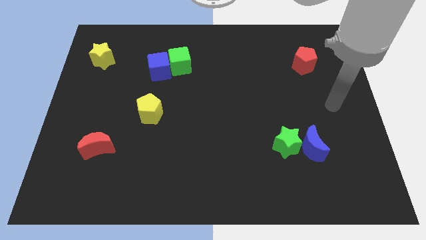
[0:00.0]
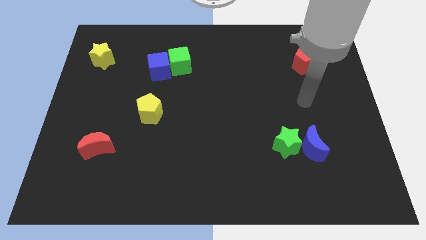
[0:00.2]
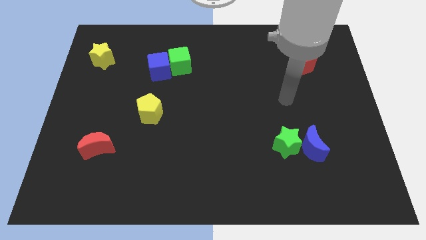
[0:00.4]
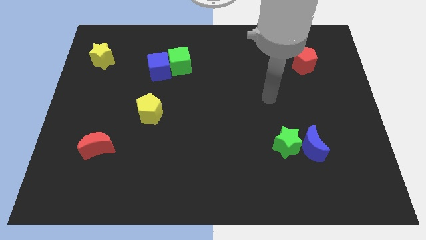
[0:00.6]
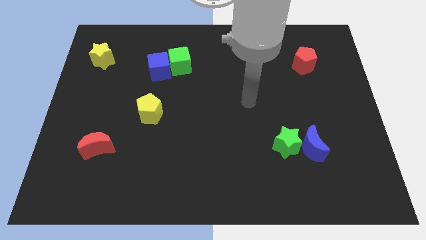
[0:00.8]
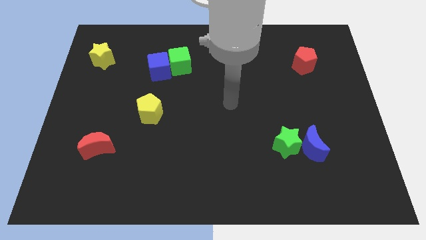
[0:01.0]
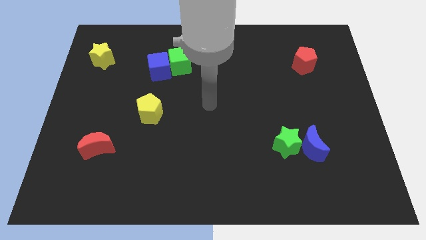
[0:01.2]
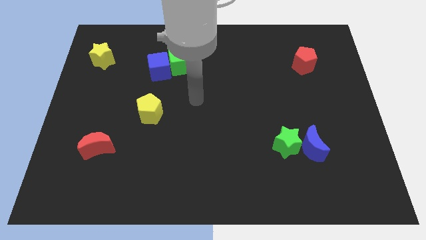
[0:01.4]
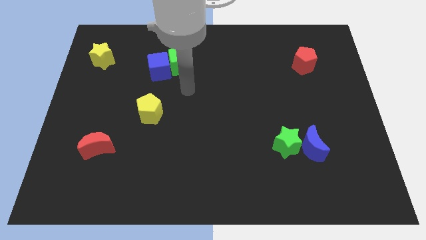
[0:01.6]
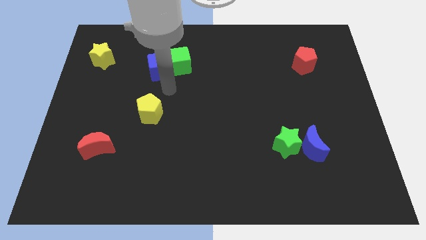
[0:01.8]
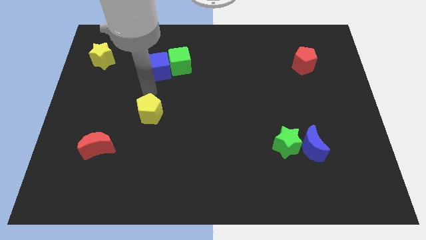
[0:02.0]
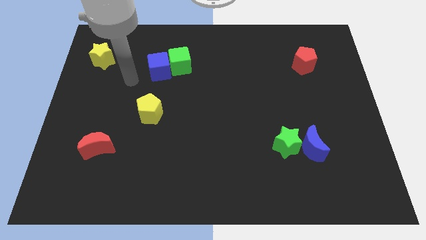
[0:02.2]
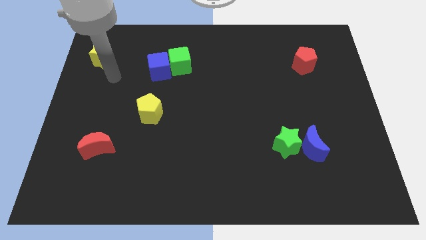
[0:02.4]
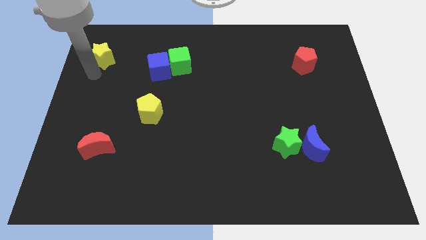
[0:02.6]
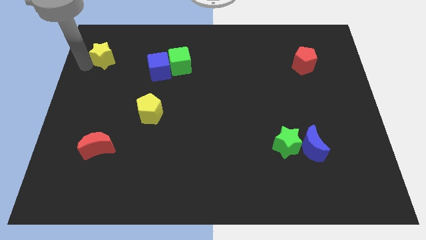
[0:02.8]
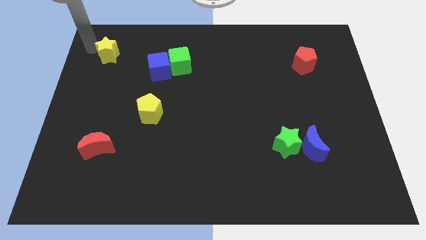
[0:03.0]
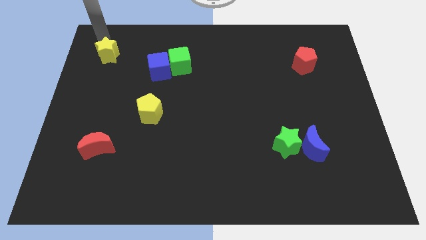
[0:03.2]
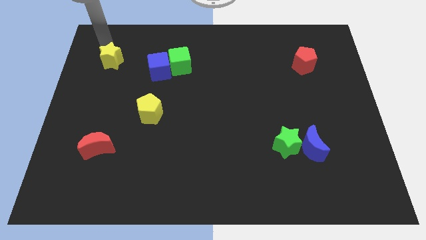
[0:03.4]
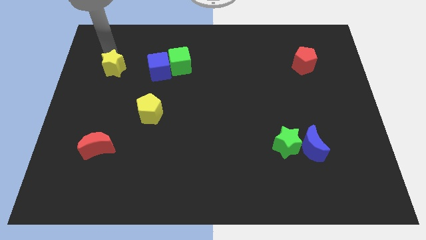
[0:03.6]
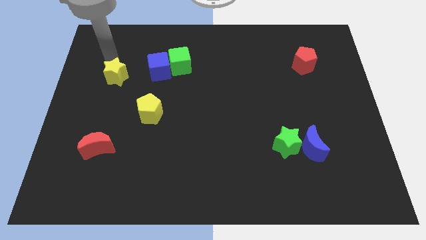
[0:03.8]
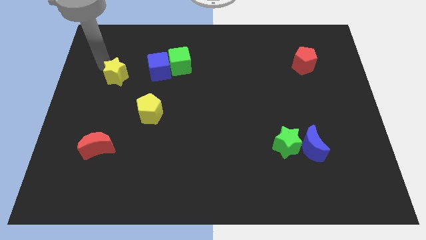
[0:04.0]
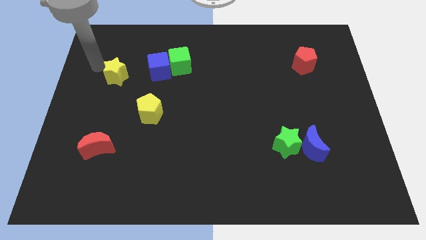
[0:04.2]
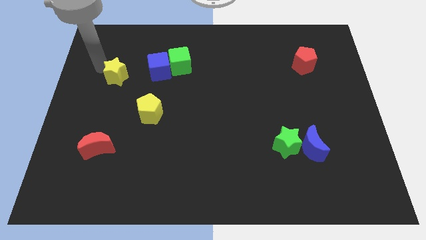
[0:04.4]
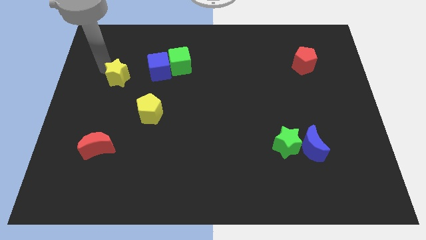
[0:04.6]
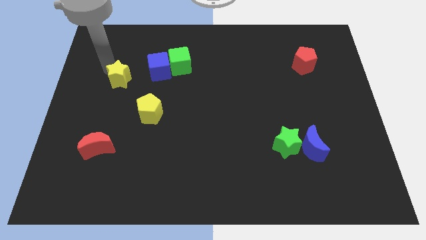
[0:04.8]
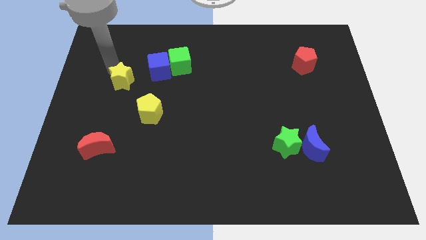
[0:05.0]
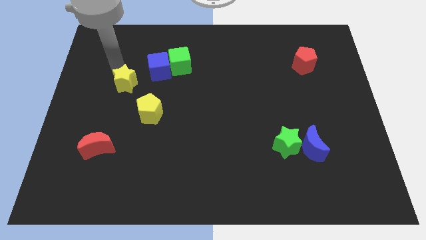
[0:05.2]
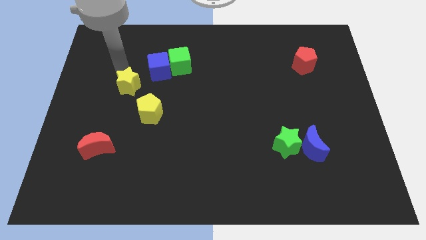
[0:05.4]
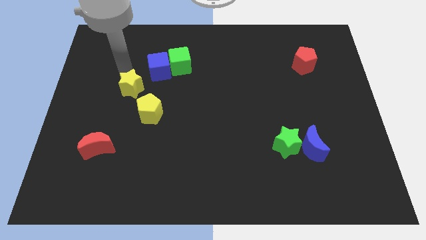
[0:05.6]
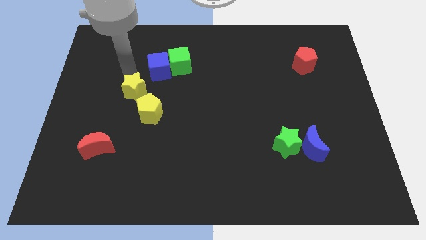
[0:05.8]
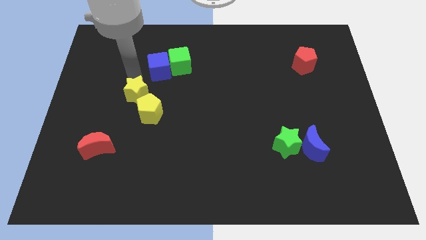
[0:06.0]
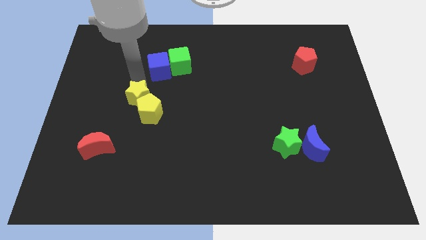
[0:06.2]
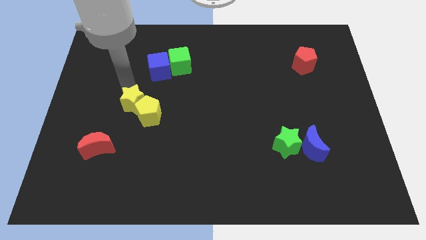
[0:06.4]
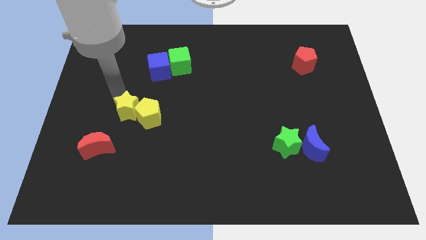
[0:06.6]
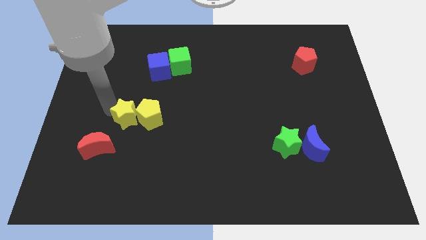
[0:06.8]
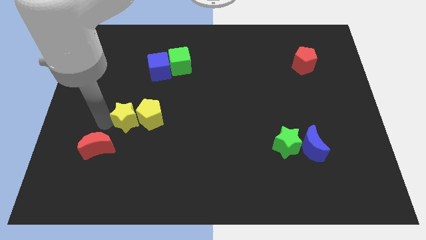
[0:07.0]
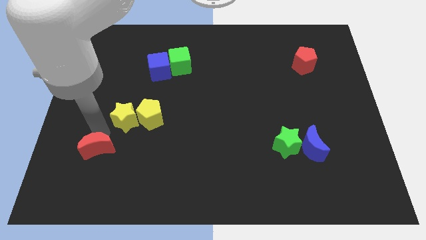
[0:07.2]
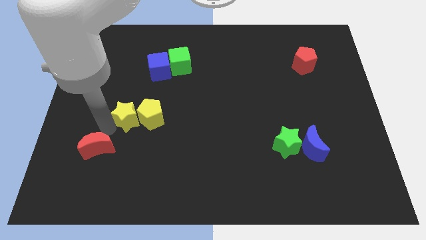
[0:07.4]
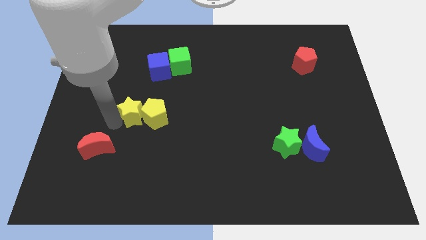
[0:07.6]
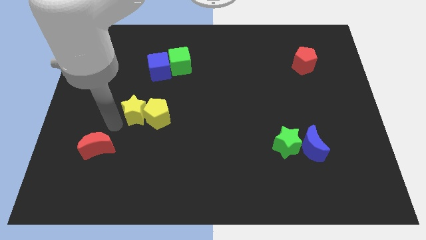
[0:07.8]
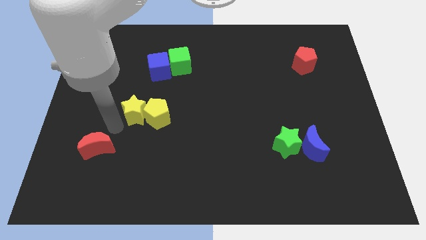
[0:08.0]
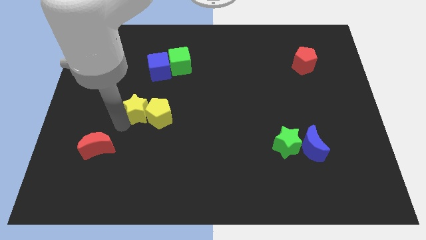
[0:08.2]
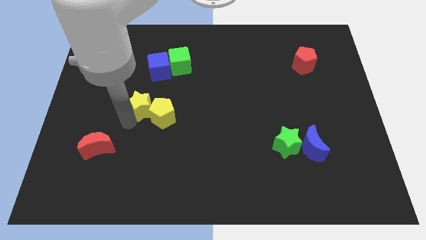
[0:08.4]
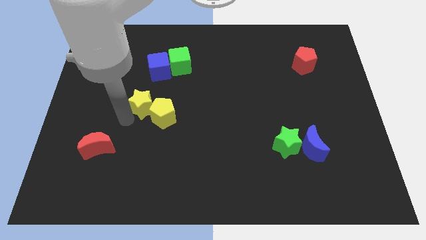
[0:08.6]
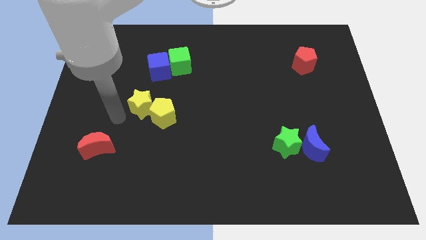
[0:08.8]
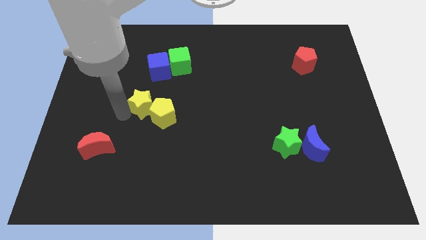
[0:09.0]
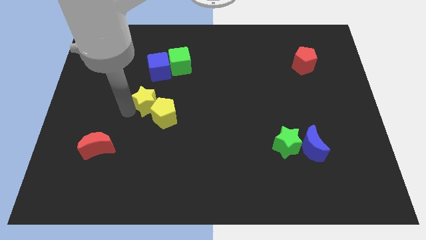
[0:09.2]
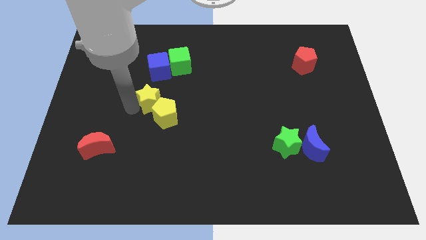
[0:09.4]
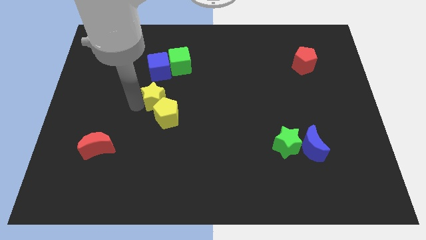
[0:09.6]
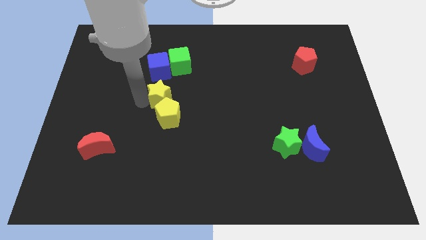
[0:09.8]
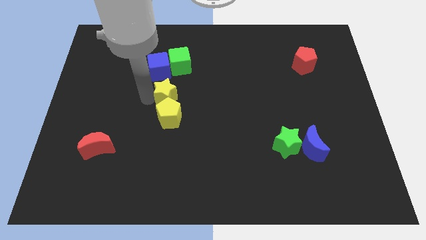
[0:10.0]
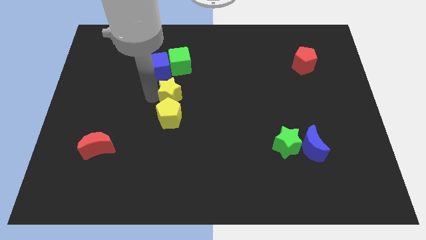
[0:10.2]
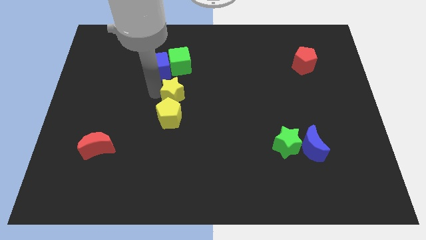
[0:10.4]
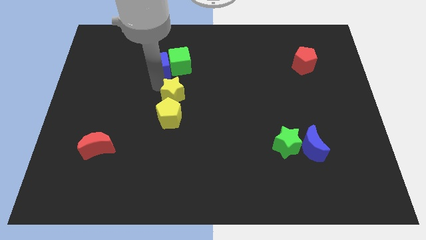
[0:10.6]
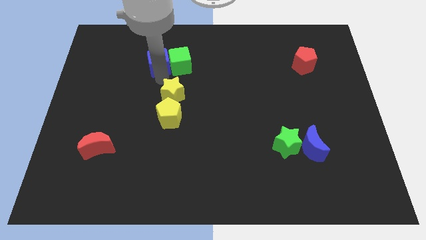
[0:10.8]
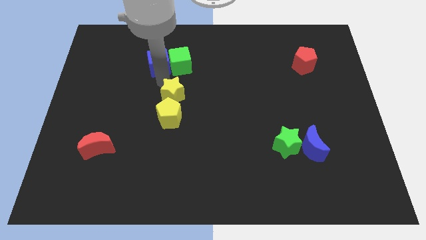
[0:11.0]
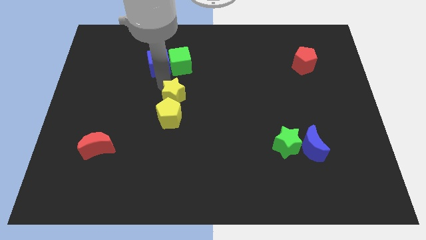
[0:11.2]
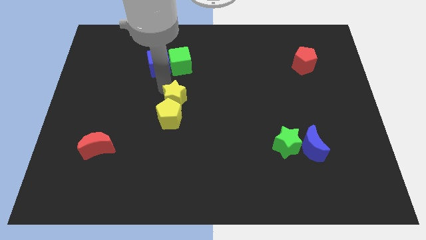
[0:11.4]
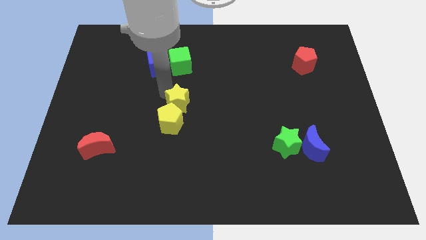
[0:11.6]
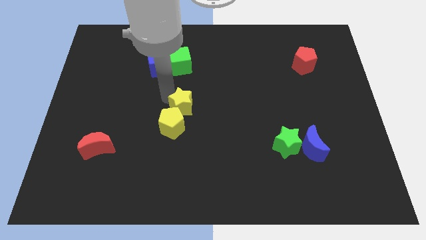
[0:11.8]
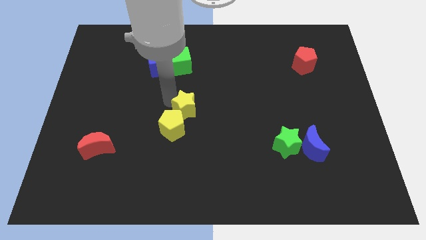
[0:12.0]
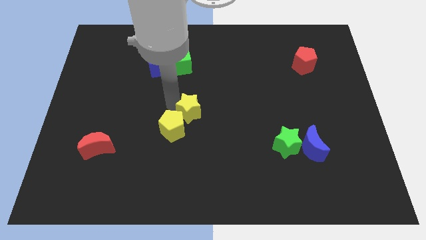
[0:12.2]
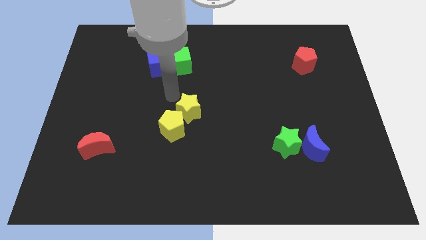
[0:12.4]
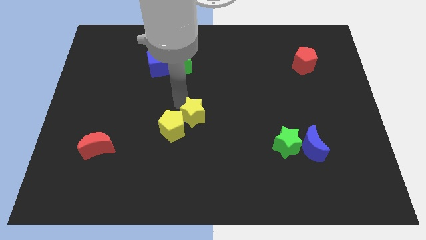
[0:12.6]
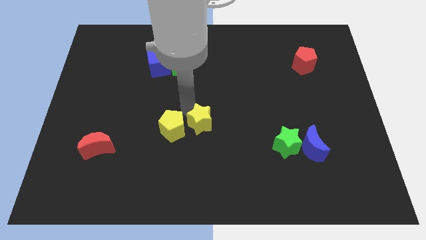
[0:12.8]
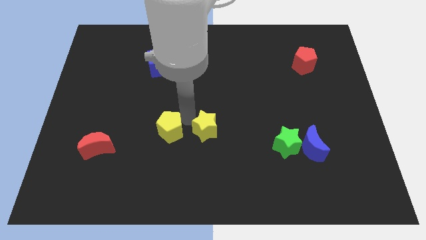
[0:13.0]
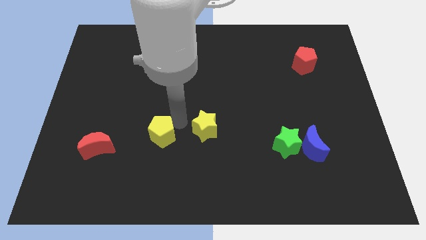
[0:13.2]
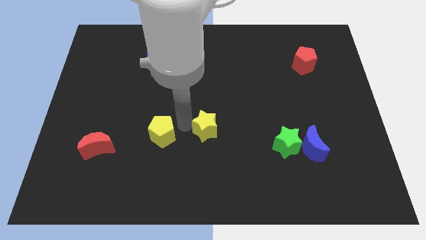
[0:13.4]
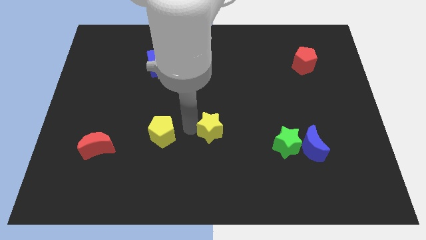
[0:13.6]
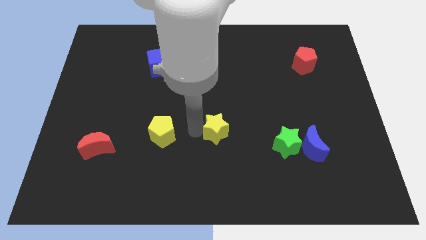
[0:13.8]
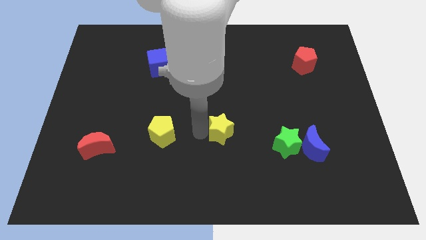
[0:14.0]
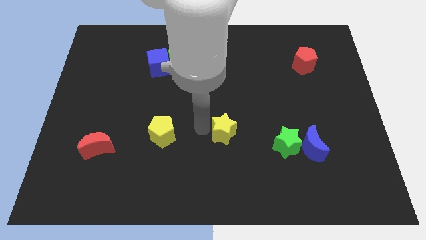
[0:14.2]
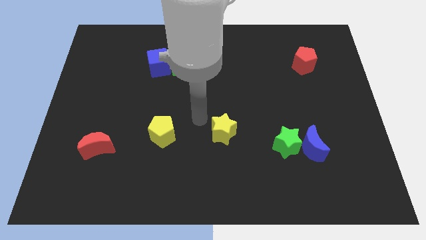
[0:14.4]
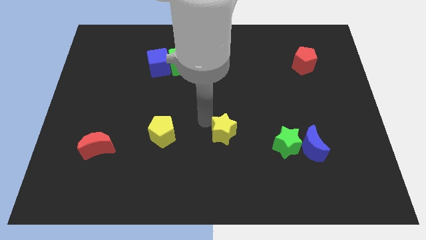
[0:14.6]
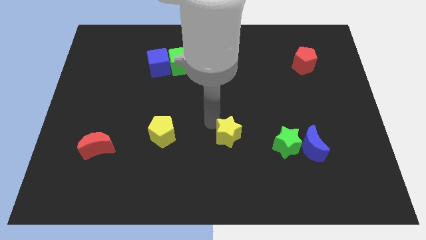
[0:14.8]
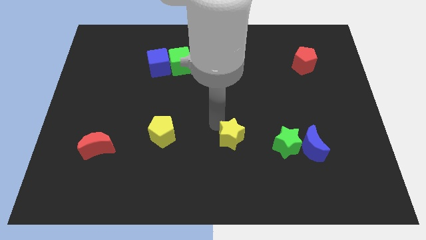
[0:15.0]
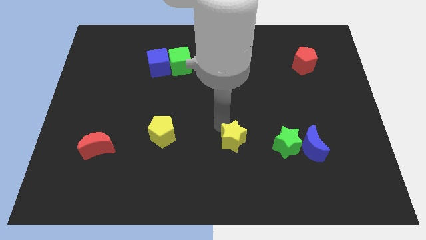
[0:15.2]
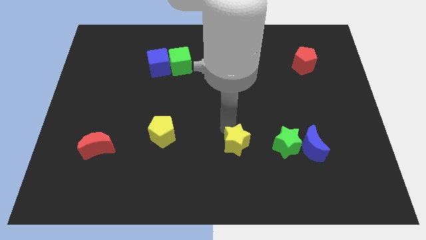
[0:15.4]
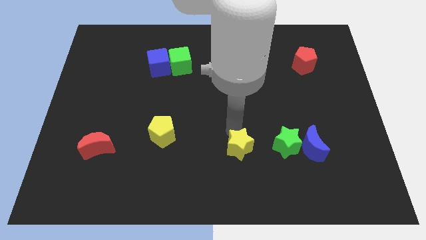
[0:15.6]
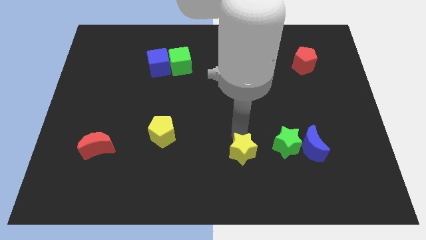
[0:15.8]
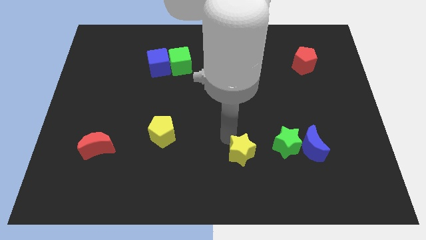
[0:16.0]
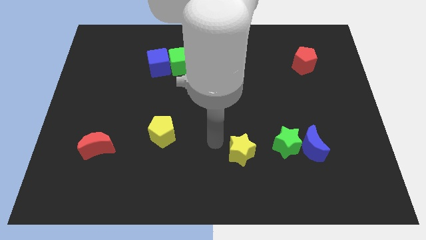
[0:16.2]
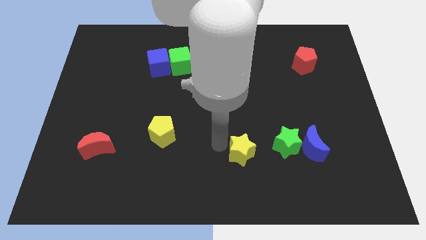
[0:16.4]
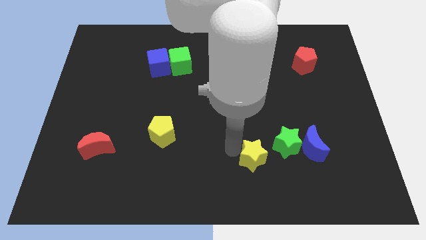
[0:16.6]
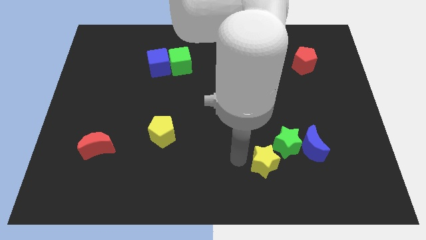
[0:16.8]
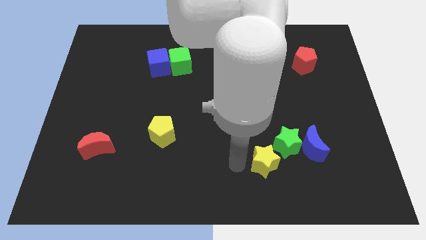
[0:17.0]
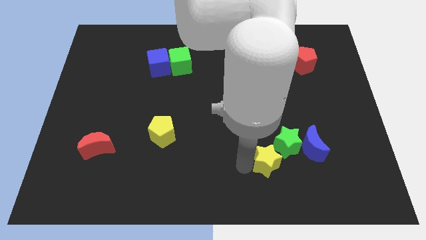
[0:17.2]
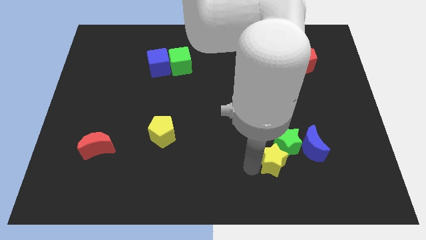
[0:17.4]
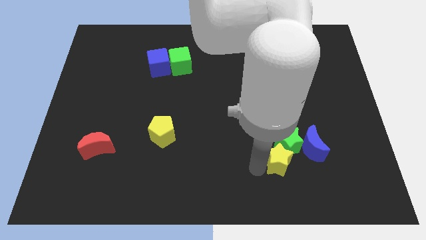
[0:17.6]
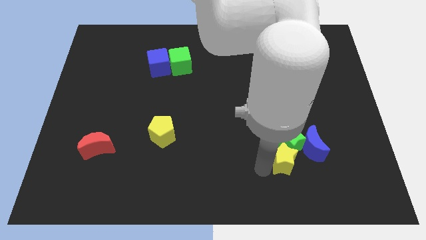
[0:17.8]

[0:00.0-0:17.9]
move the yellow star diagonally down and to the right of the green star
